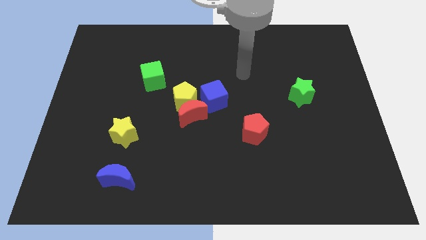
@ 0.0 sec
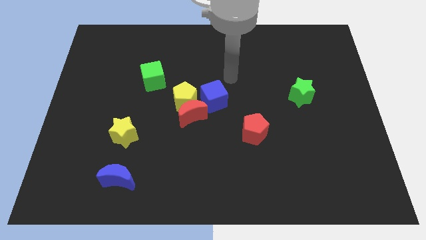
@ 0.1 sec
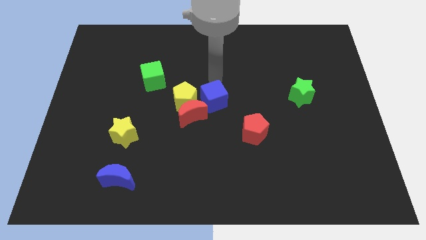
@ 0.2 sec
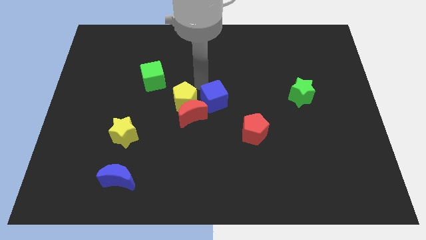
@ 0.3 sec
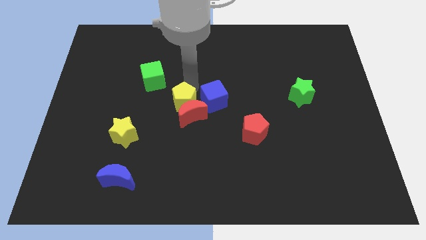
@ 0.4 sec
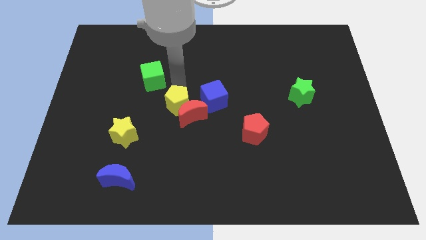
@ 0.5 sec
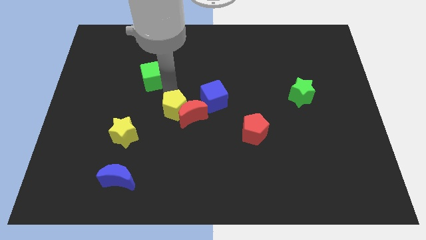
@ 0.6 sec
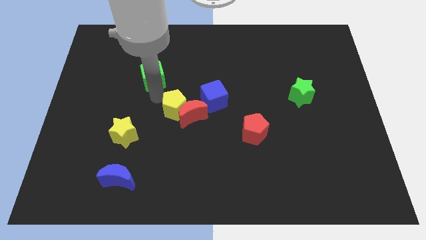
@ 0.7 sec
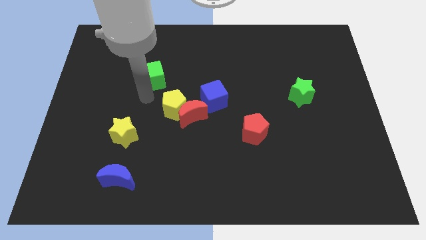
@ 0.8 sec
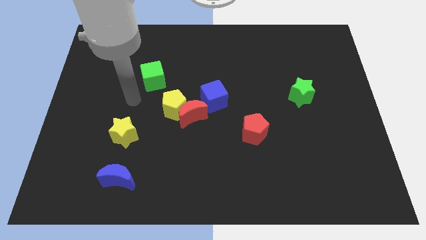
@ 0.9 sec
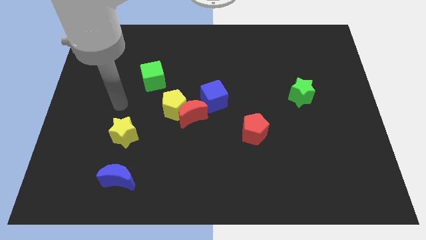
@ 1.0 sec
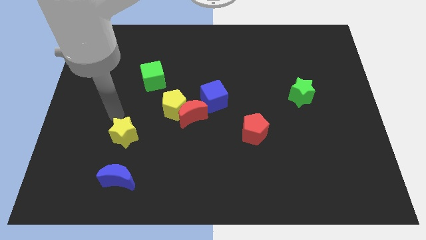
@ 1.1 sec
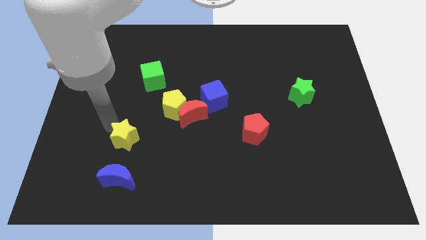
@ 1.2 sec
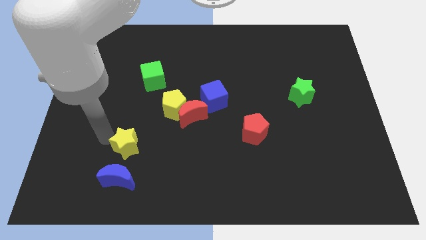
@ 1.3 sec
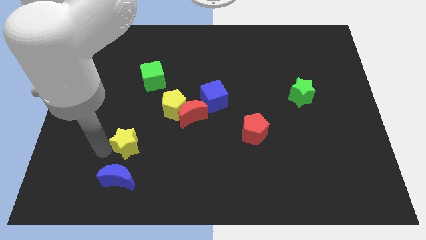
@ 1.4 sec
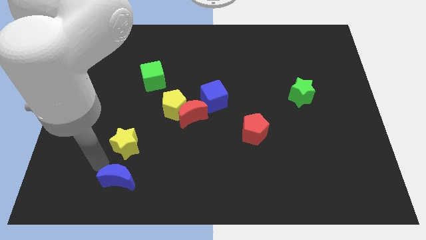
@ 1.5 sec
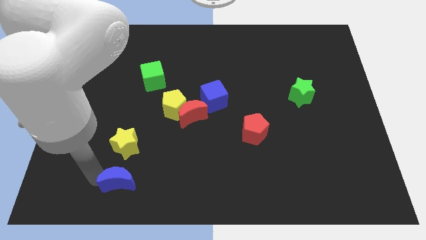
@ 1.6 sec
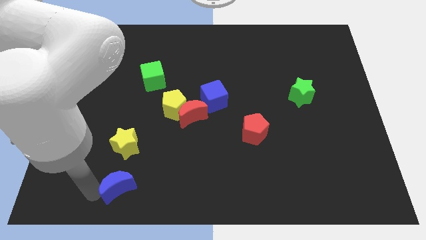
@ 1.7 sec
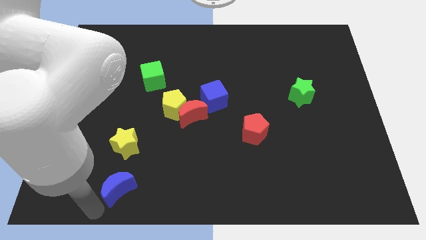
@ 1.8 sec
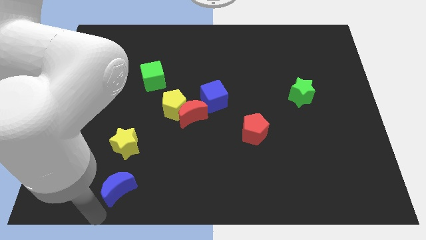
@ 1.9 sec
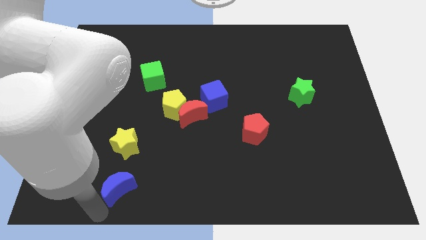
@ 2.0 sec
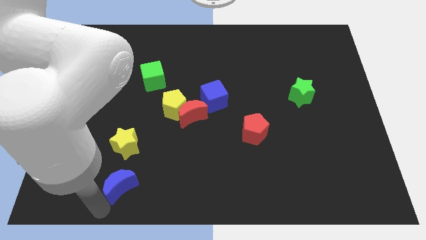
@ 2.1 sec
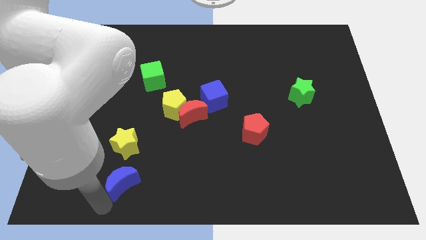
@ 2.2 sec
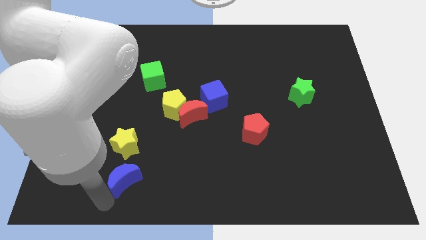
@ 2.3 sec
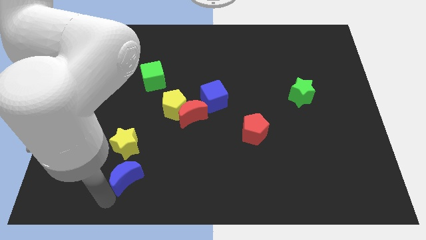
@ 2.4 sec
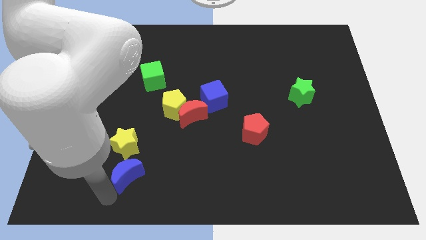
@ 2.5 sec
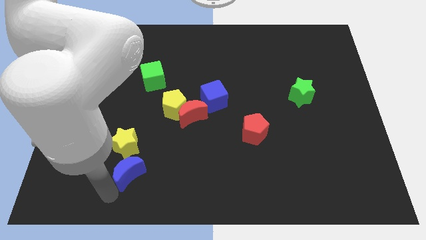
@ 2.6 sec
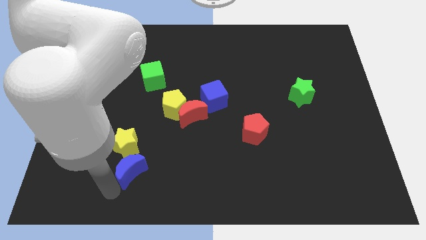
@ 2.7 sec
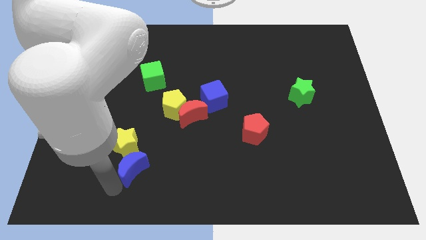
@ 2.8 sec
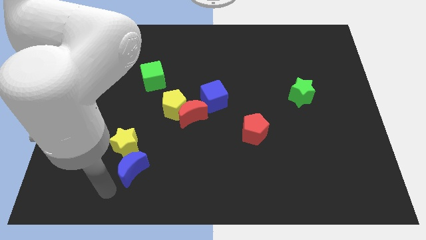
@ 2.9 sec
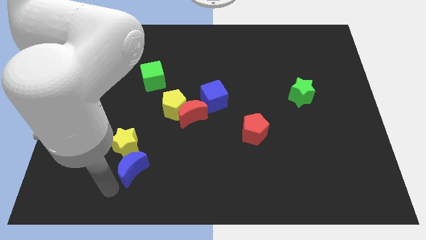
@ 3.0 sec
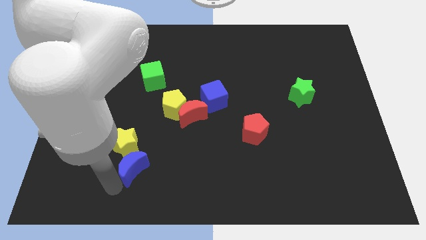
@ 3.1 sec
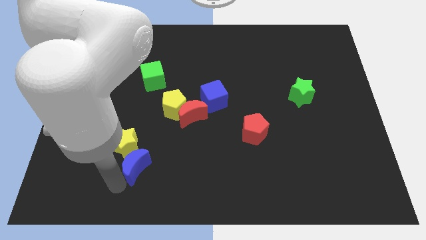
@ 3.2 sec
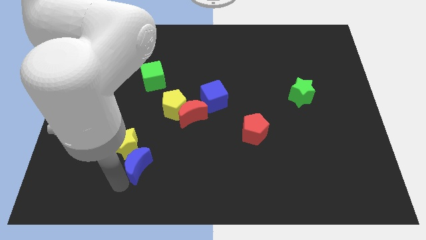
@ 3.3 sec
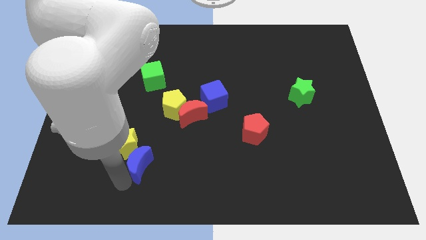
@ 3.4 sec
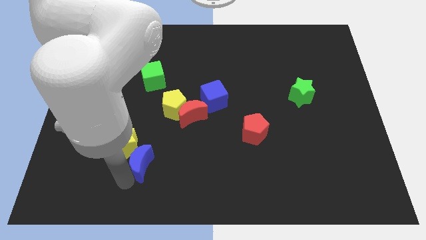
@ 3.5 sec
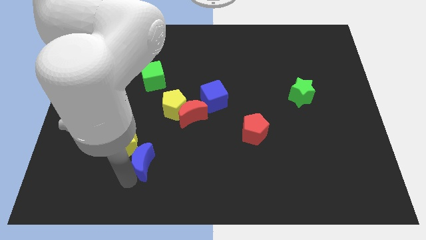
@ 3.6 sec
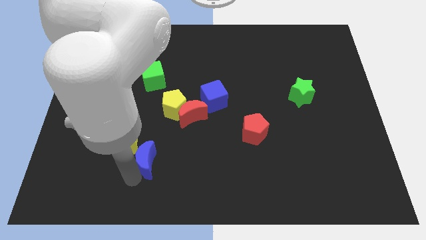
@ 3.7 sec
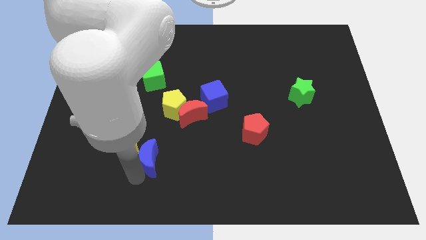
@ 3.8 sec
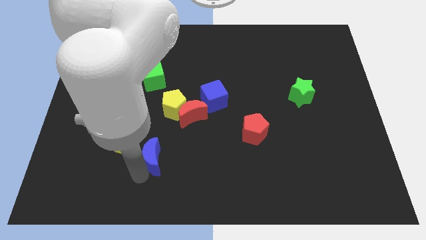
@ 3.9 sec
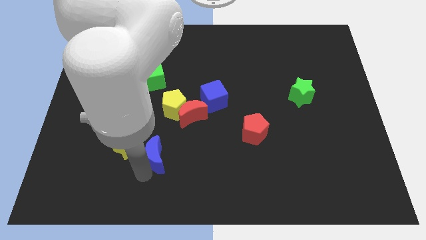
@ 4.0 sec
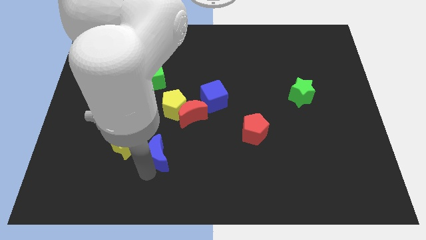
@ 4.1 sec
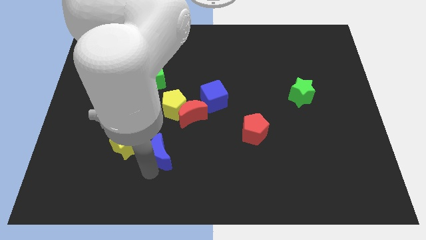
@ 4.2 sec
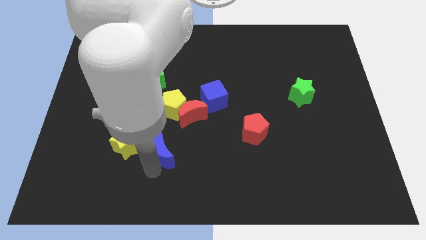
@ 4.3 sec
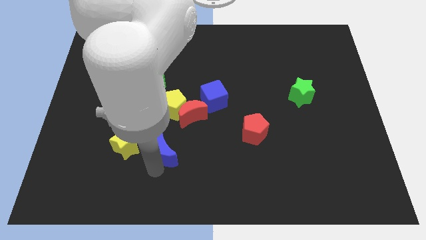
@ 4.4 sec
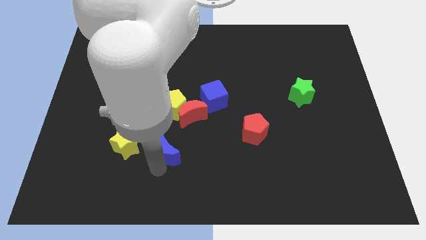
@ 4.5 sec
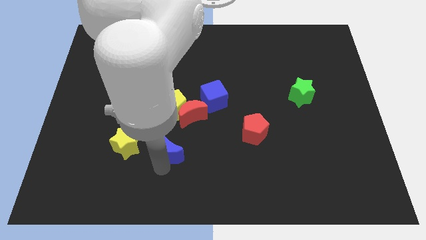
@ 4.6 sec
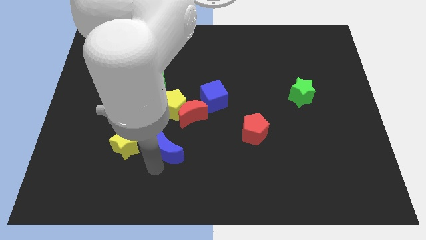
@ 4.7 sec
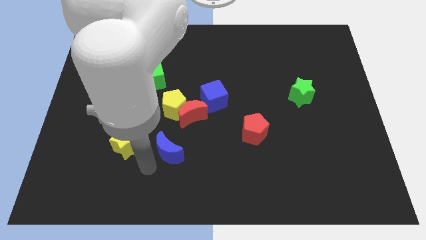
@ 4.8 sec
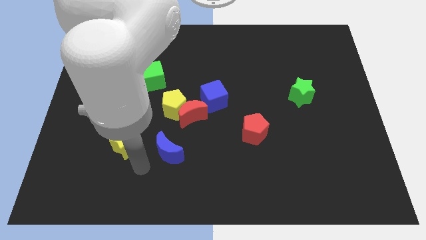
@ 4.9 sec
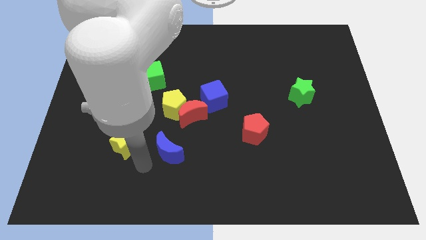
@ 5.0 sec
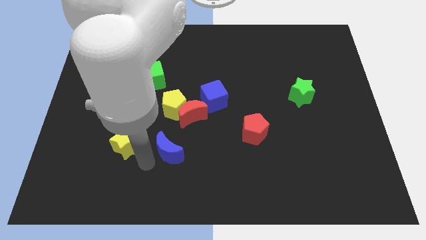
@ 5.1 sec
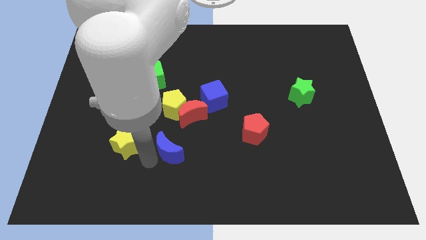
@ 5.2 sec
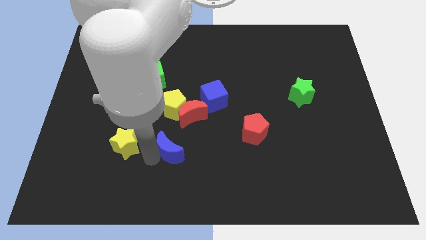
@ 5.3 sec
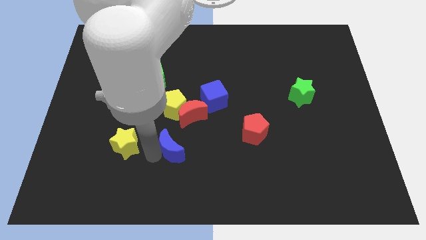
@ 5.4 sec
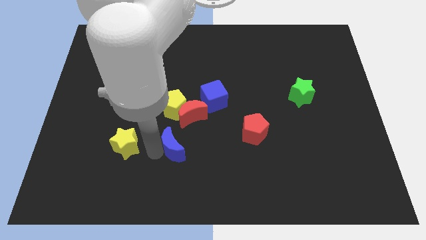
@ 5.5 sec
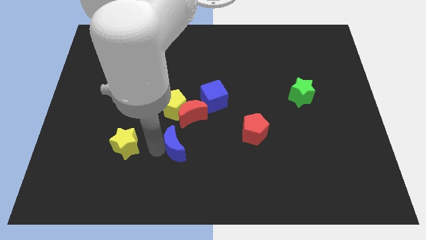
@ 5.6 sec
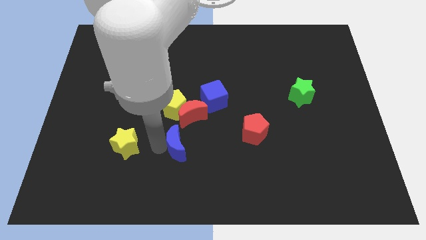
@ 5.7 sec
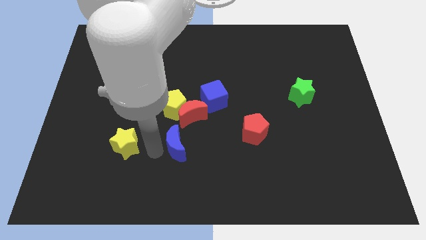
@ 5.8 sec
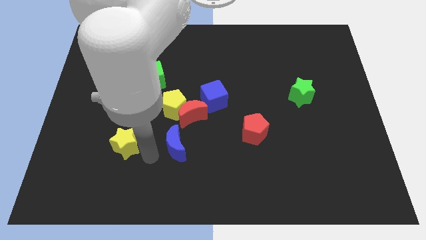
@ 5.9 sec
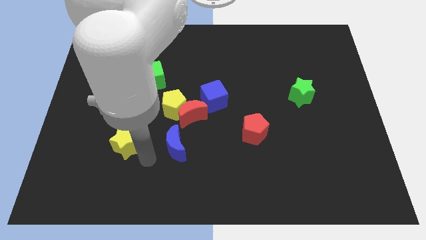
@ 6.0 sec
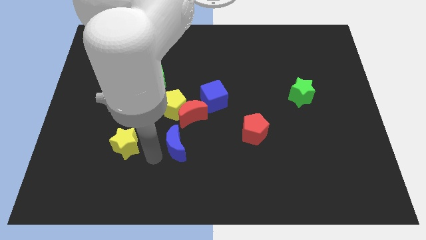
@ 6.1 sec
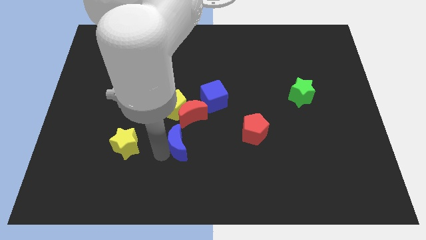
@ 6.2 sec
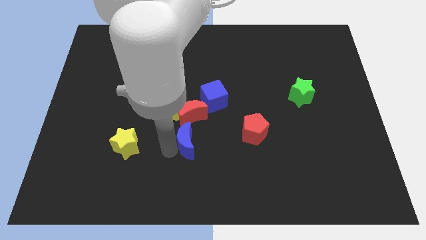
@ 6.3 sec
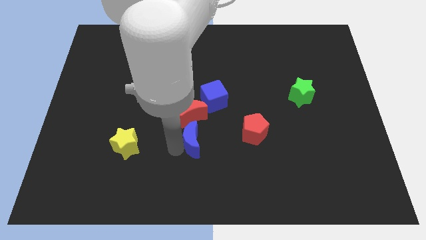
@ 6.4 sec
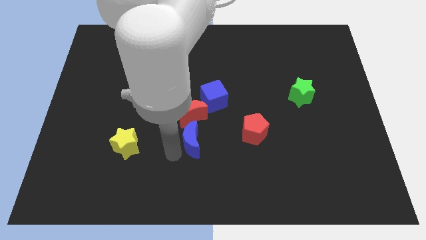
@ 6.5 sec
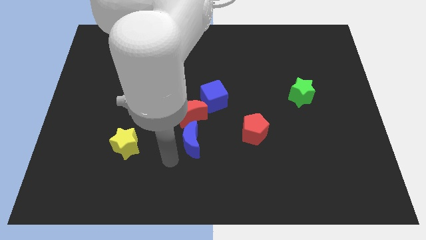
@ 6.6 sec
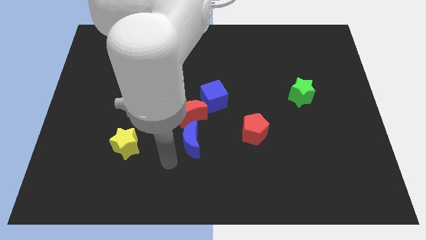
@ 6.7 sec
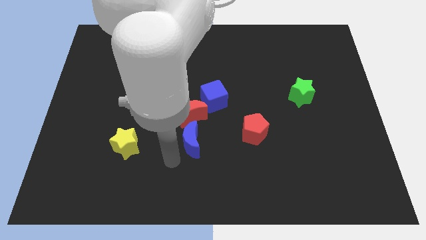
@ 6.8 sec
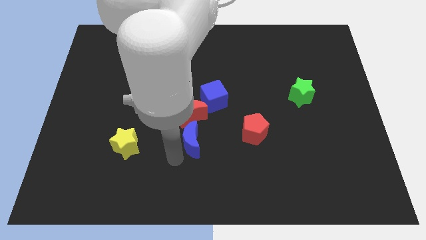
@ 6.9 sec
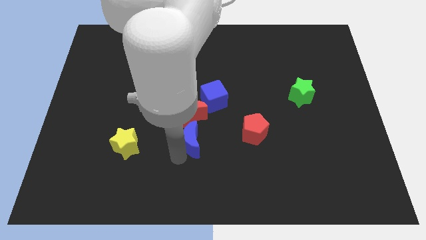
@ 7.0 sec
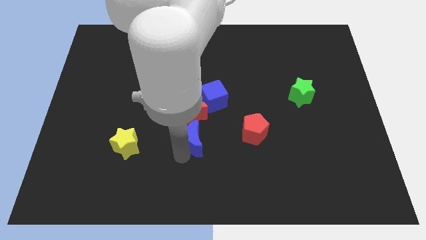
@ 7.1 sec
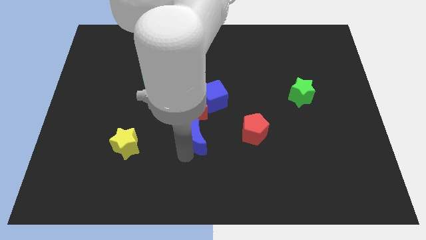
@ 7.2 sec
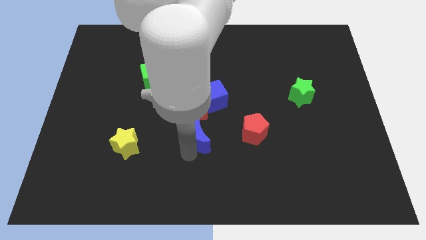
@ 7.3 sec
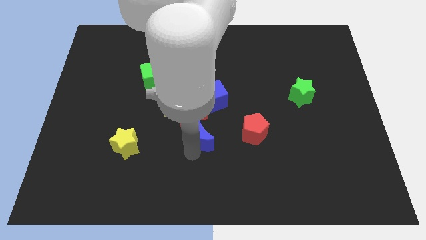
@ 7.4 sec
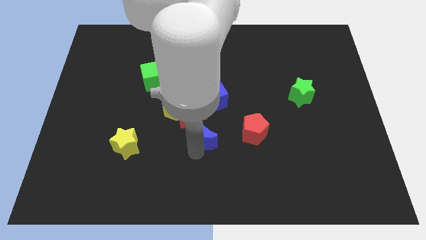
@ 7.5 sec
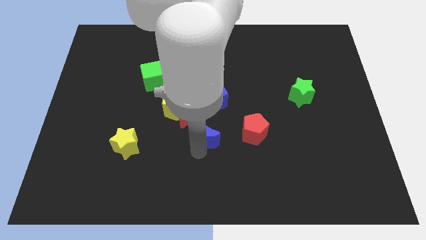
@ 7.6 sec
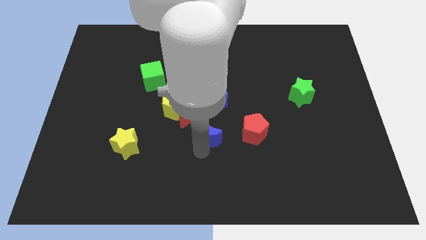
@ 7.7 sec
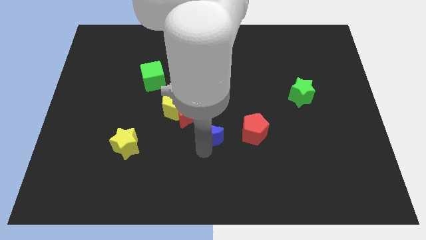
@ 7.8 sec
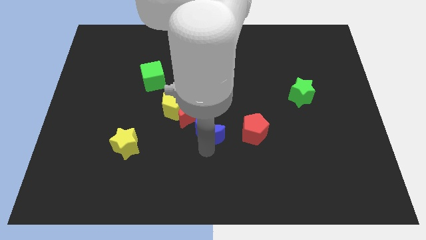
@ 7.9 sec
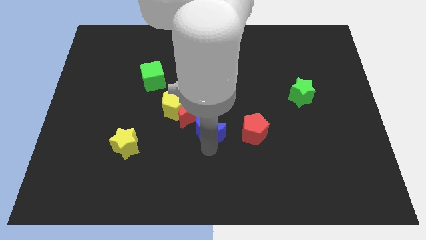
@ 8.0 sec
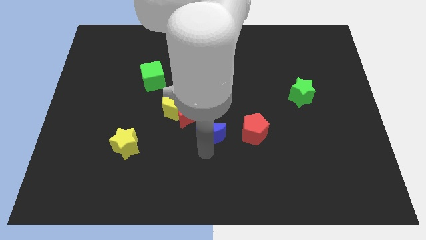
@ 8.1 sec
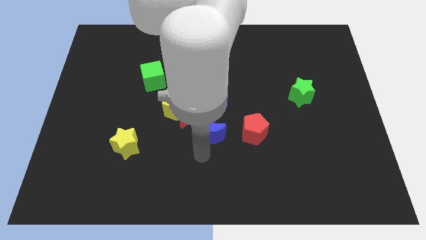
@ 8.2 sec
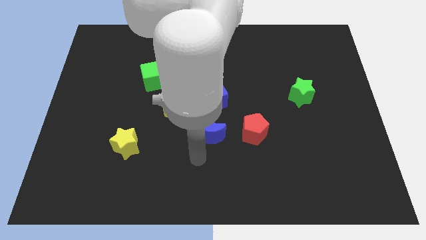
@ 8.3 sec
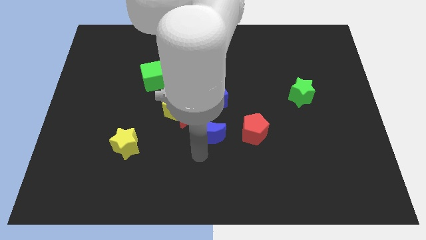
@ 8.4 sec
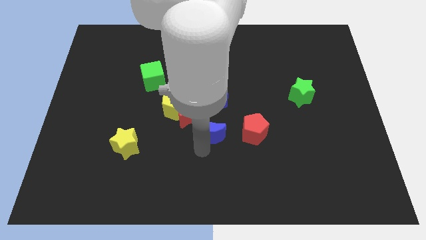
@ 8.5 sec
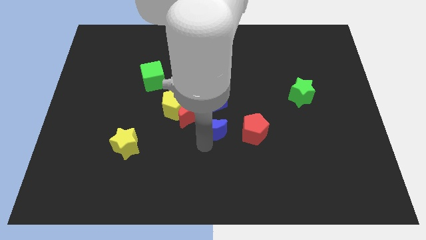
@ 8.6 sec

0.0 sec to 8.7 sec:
push the blue moon up and right
